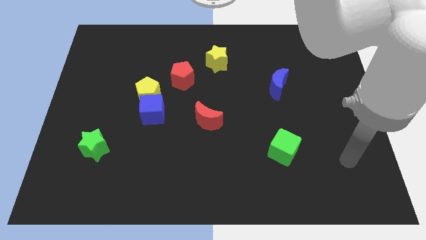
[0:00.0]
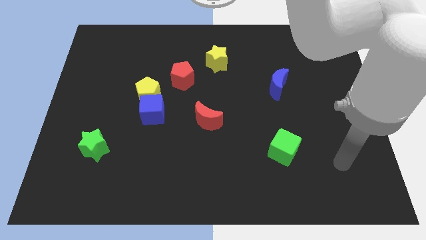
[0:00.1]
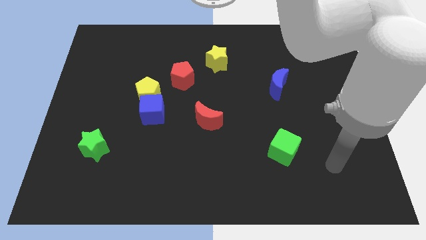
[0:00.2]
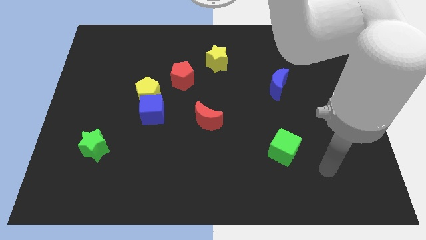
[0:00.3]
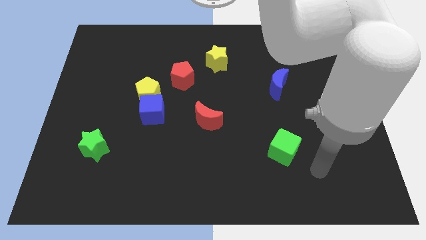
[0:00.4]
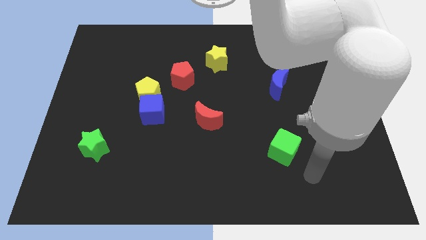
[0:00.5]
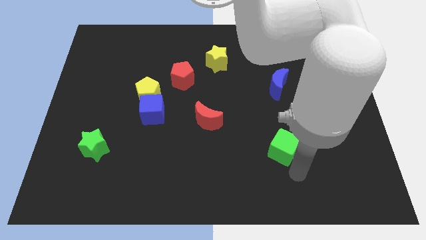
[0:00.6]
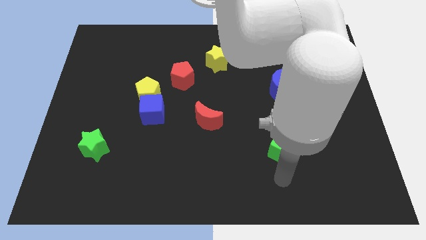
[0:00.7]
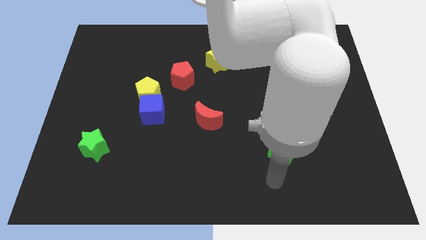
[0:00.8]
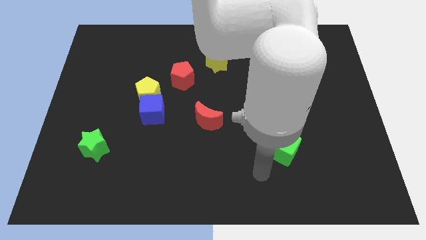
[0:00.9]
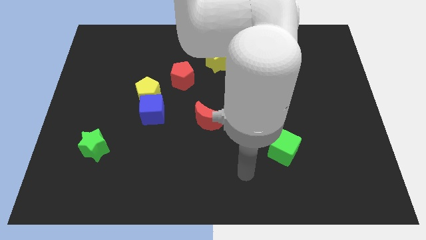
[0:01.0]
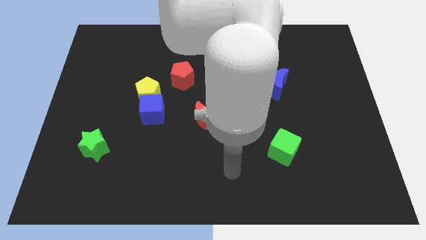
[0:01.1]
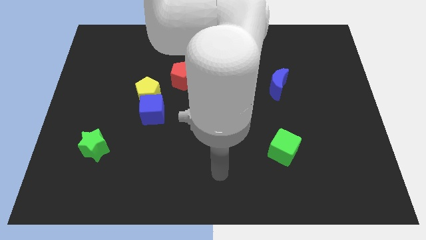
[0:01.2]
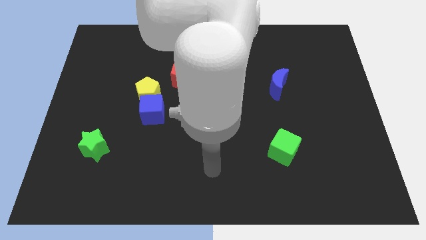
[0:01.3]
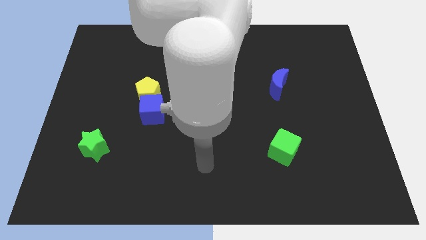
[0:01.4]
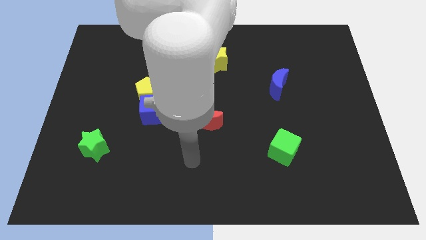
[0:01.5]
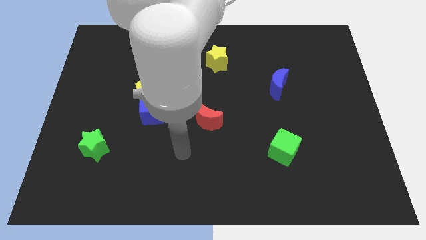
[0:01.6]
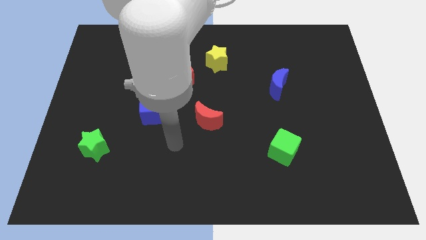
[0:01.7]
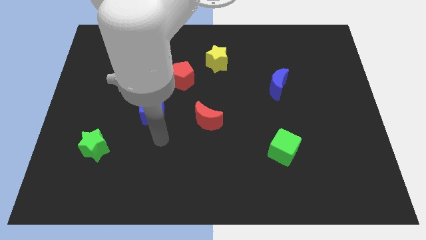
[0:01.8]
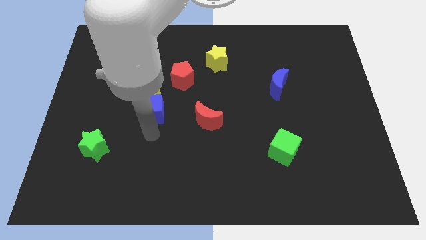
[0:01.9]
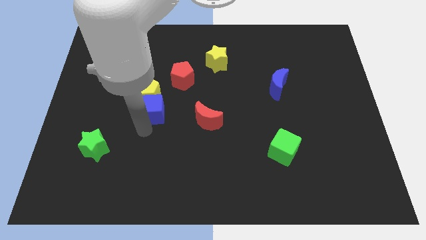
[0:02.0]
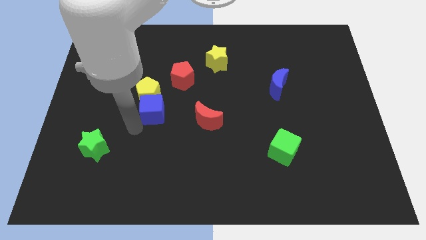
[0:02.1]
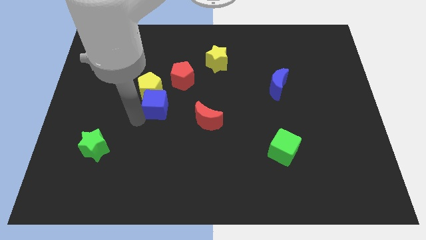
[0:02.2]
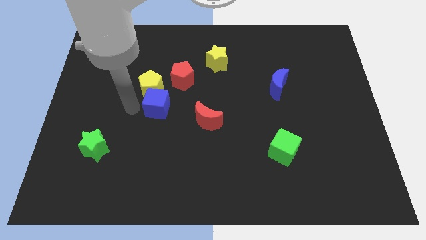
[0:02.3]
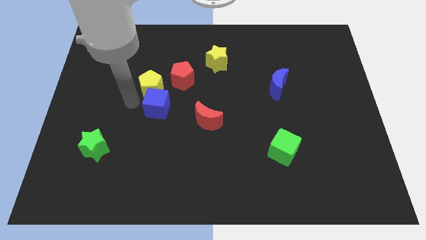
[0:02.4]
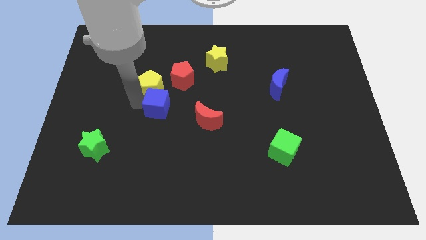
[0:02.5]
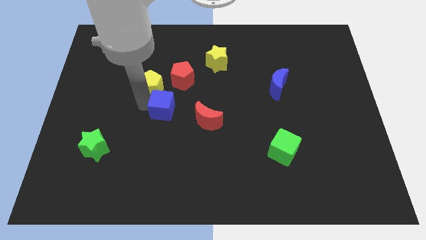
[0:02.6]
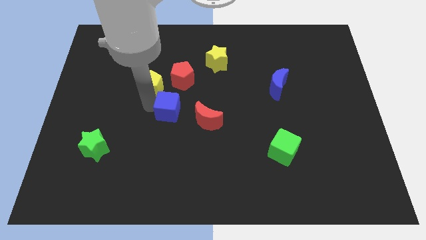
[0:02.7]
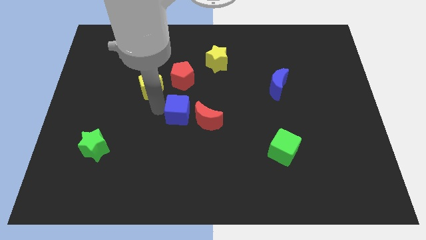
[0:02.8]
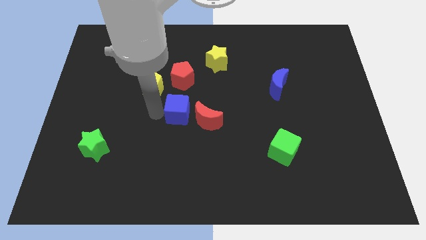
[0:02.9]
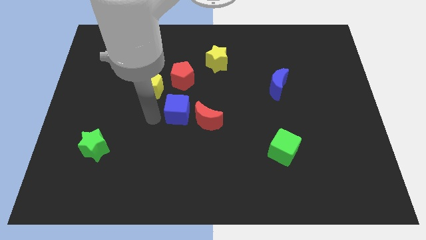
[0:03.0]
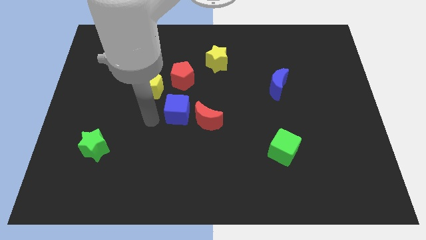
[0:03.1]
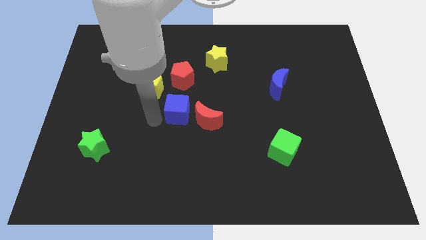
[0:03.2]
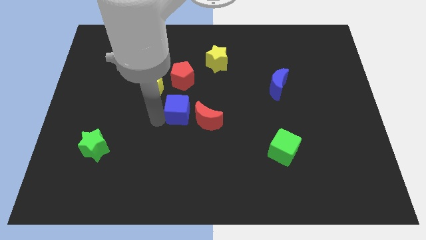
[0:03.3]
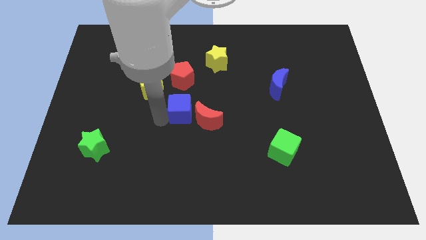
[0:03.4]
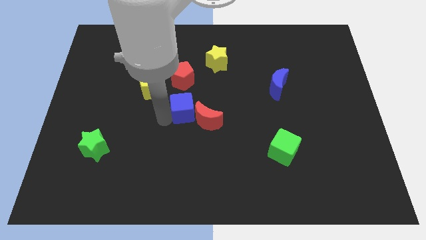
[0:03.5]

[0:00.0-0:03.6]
slide the blue cube somewhat right

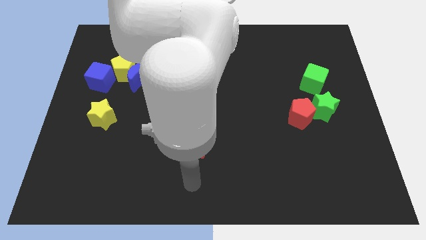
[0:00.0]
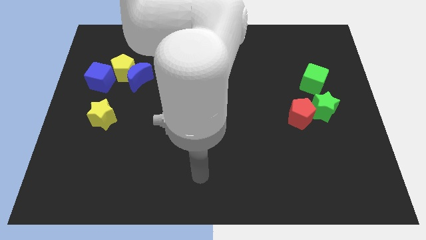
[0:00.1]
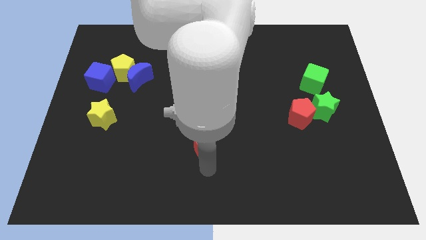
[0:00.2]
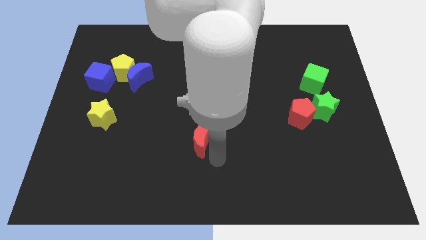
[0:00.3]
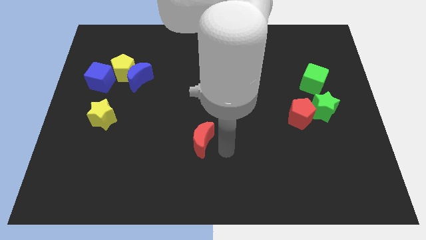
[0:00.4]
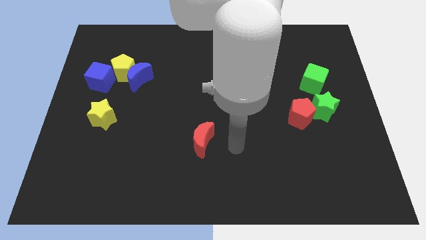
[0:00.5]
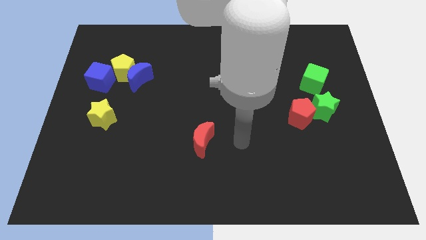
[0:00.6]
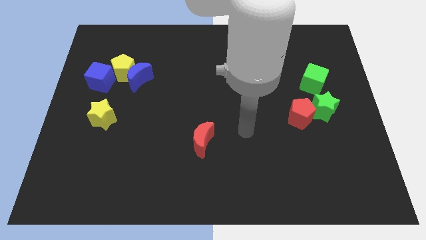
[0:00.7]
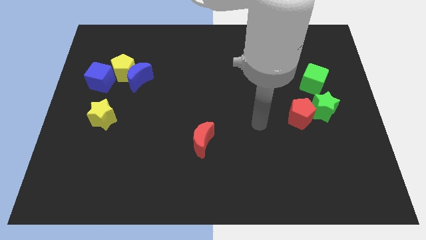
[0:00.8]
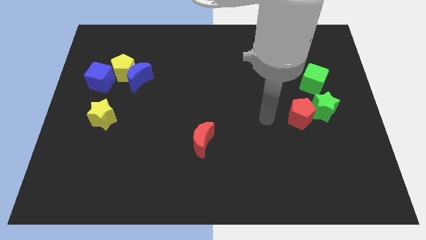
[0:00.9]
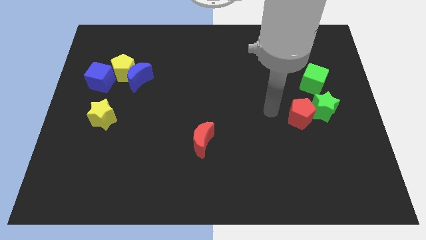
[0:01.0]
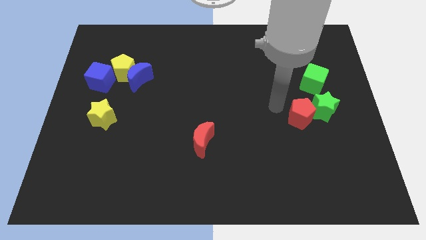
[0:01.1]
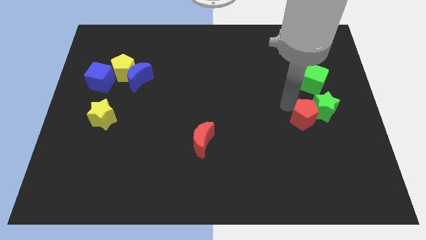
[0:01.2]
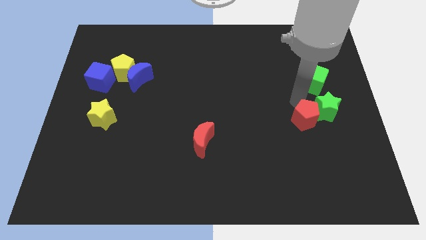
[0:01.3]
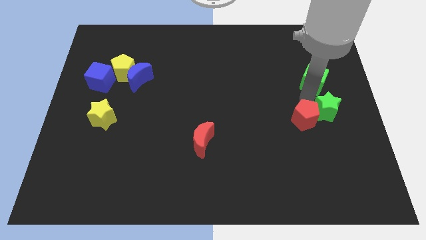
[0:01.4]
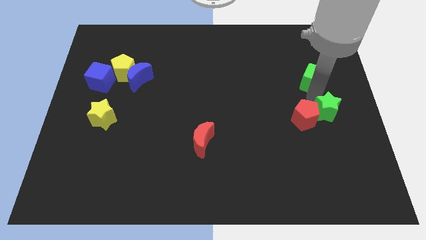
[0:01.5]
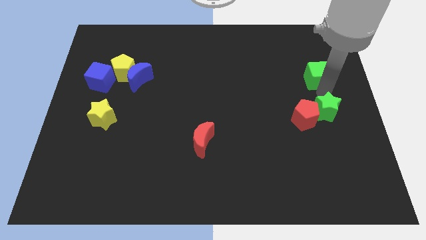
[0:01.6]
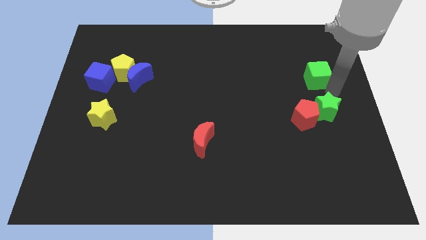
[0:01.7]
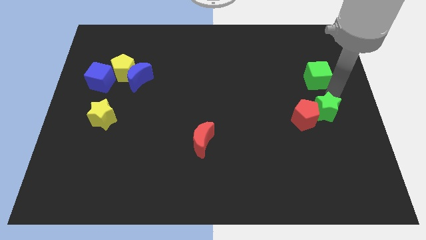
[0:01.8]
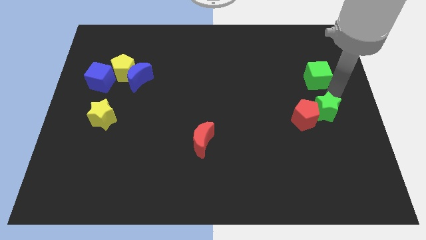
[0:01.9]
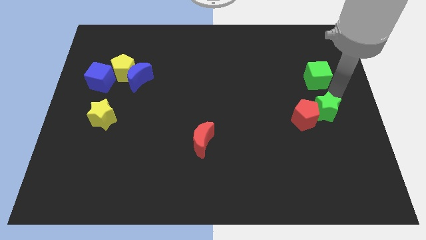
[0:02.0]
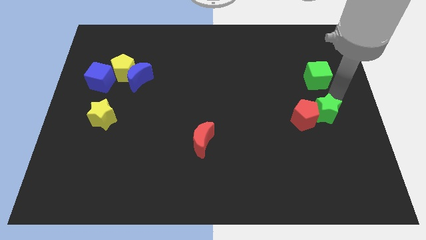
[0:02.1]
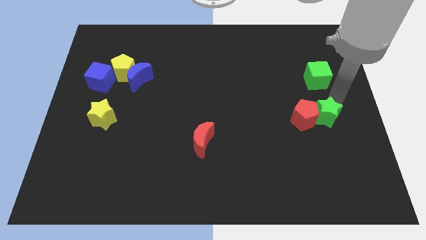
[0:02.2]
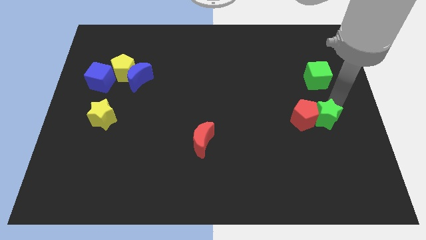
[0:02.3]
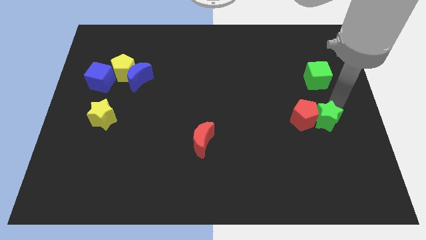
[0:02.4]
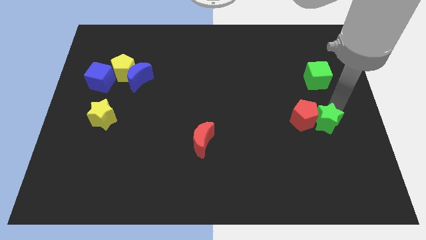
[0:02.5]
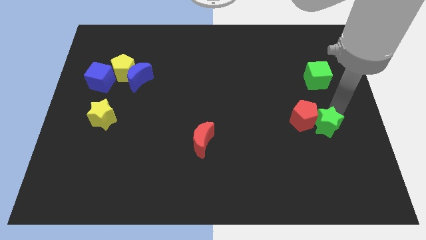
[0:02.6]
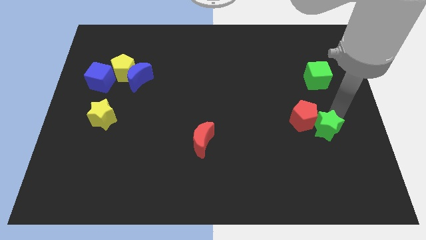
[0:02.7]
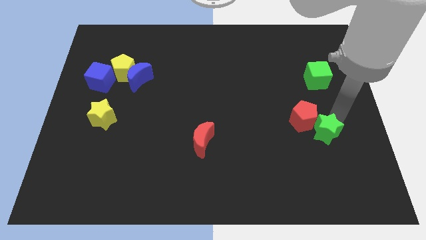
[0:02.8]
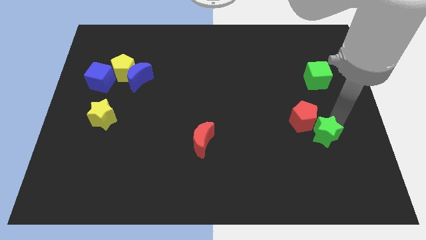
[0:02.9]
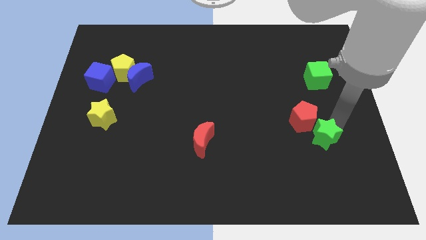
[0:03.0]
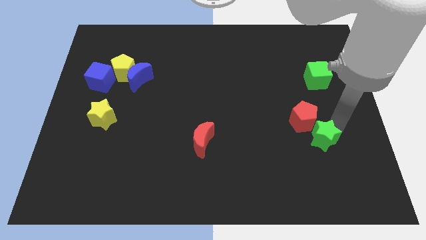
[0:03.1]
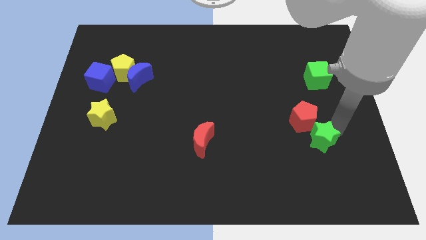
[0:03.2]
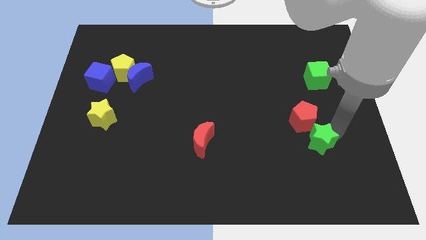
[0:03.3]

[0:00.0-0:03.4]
slightly slide the green star downwards and left

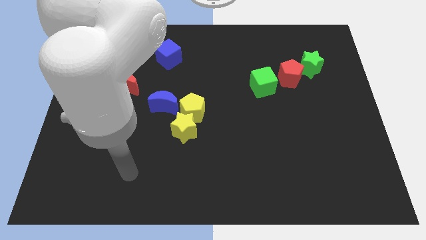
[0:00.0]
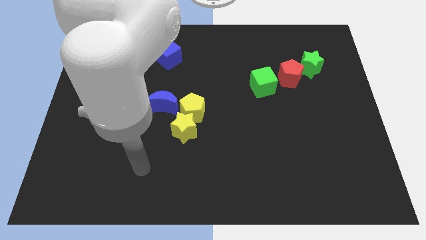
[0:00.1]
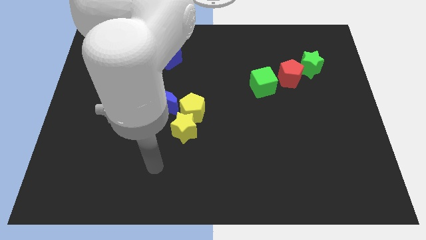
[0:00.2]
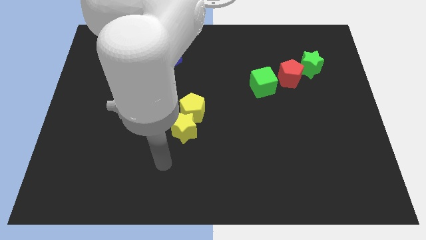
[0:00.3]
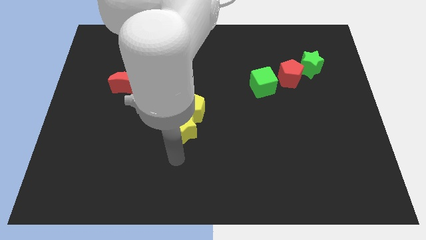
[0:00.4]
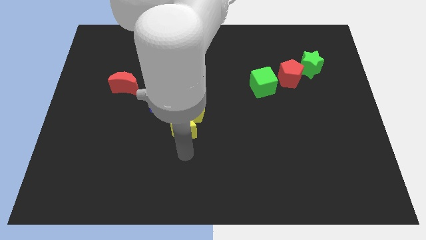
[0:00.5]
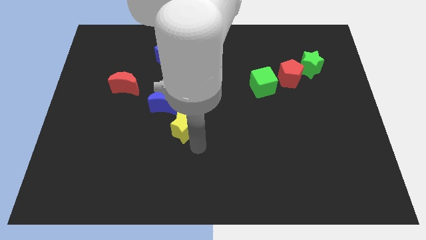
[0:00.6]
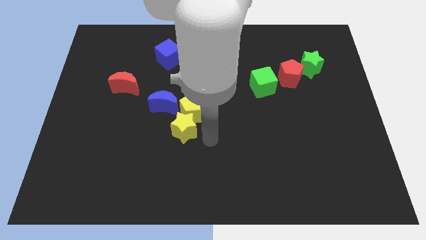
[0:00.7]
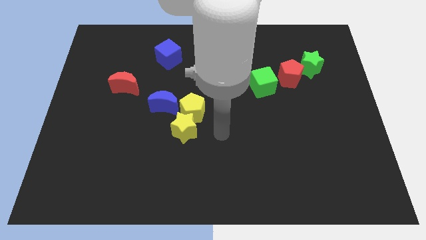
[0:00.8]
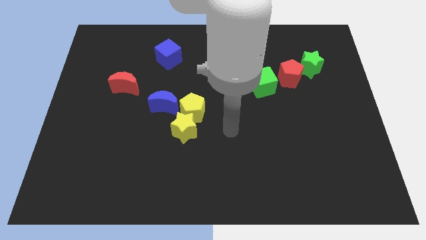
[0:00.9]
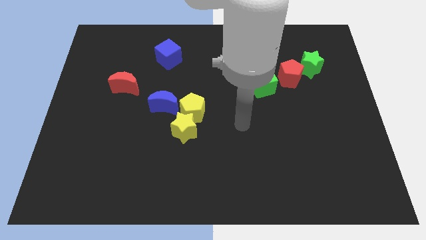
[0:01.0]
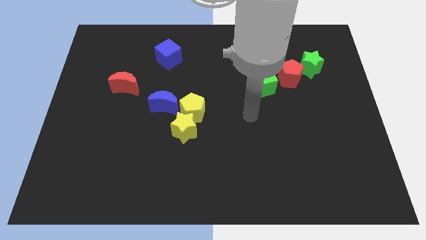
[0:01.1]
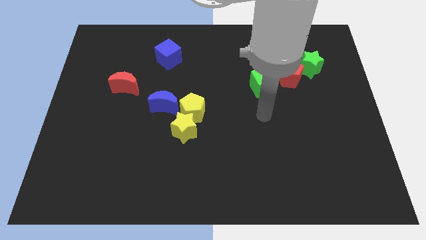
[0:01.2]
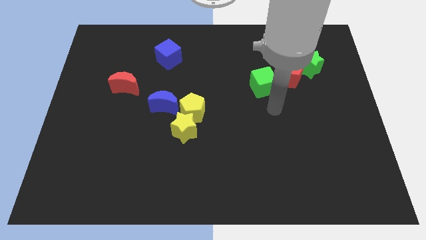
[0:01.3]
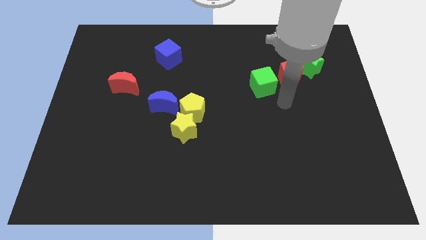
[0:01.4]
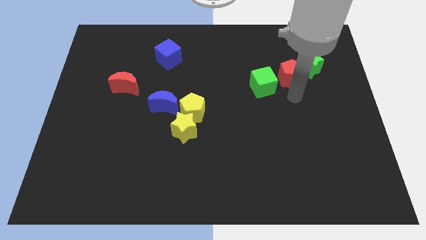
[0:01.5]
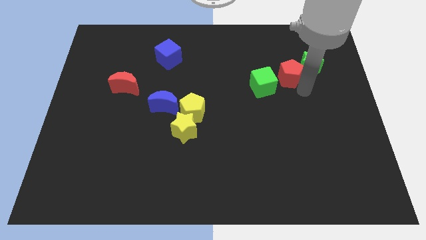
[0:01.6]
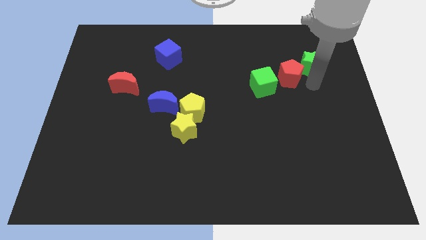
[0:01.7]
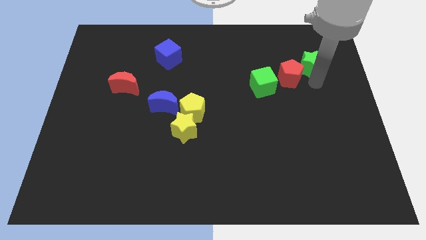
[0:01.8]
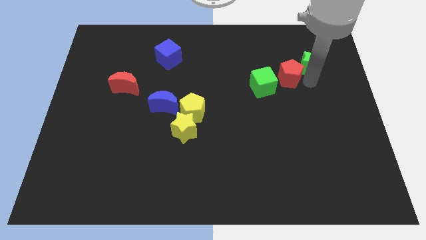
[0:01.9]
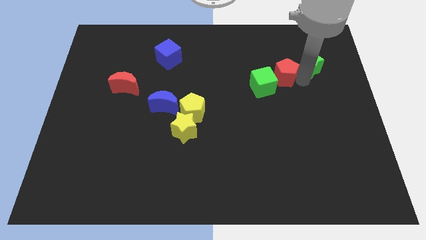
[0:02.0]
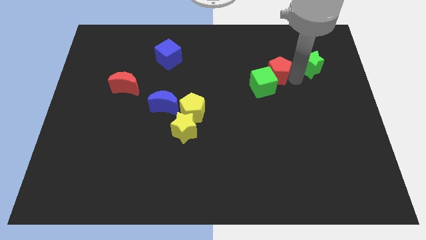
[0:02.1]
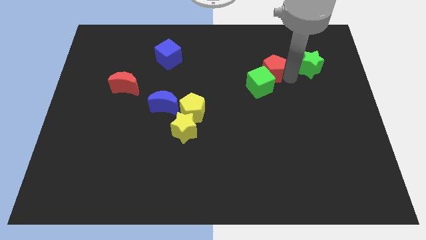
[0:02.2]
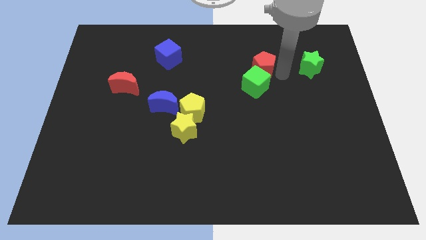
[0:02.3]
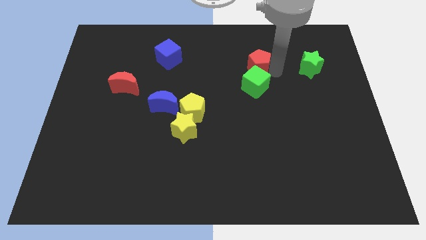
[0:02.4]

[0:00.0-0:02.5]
push the red pentagon left slightly
